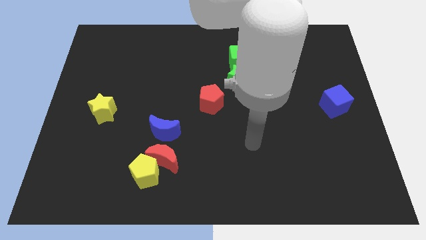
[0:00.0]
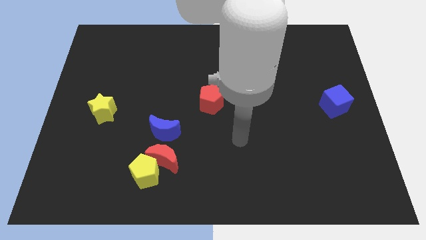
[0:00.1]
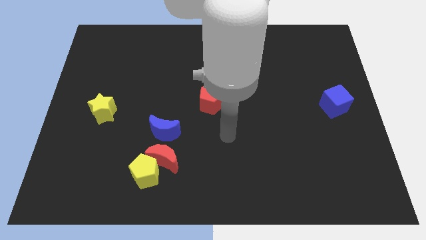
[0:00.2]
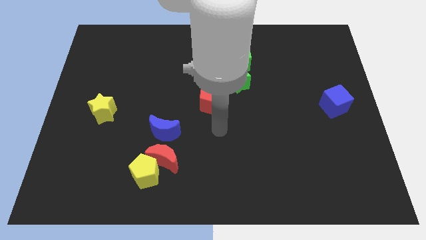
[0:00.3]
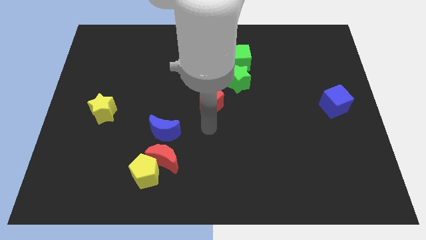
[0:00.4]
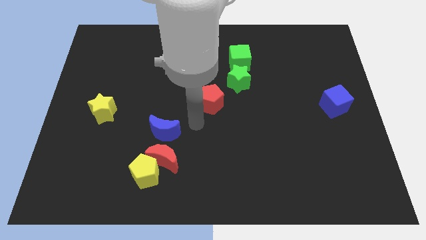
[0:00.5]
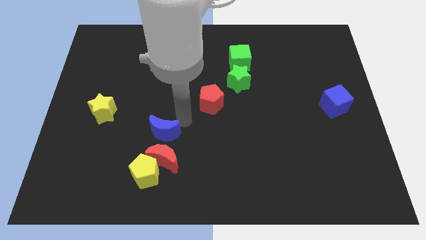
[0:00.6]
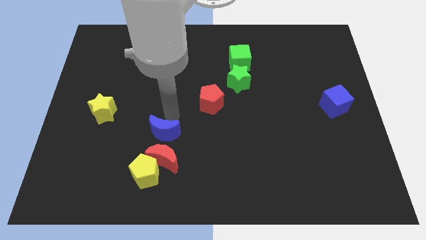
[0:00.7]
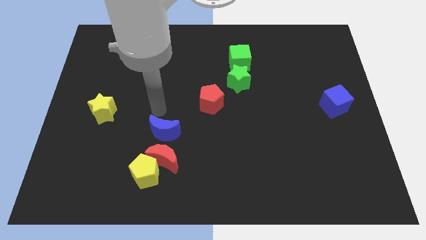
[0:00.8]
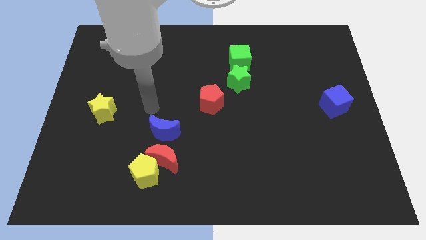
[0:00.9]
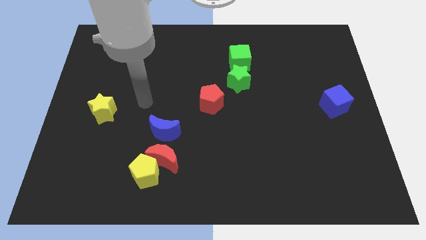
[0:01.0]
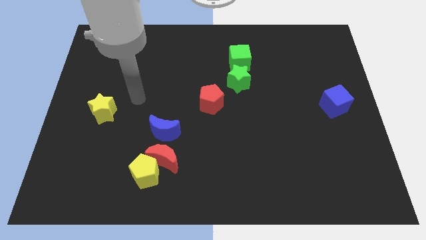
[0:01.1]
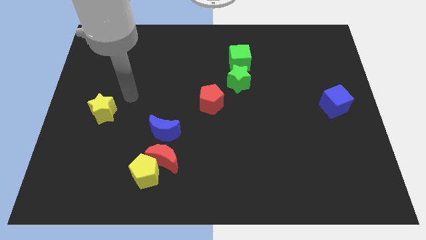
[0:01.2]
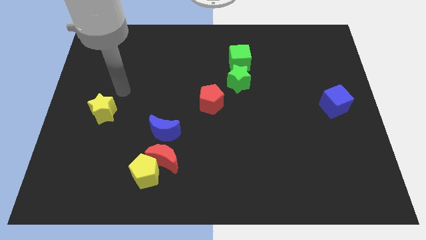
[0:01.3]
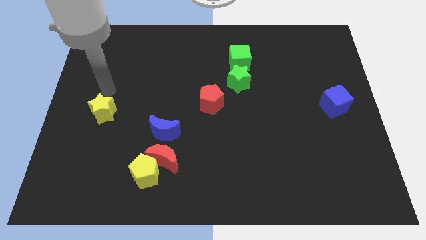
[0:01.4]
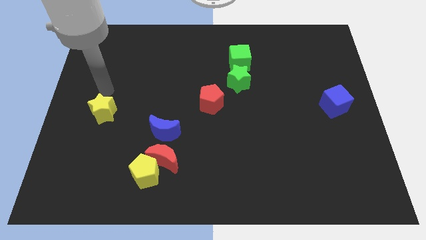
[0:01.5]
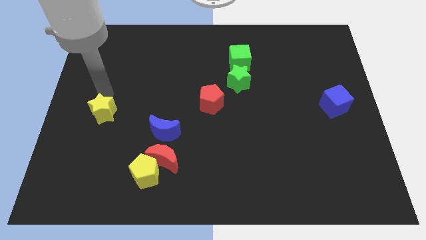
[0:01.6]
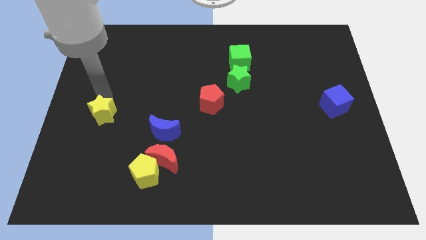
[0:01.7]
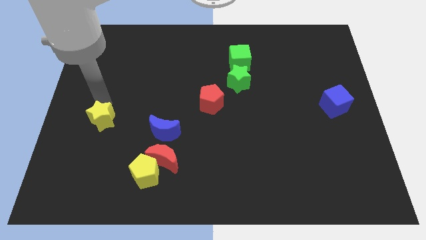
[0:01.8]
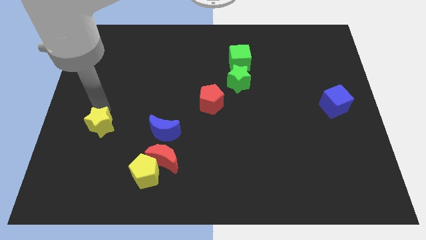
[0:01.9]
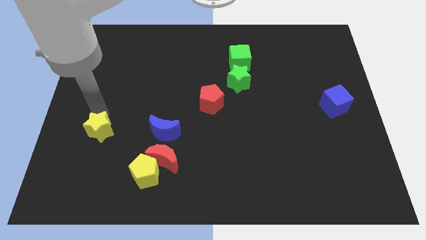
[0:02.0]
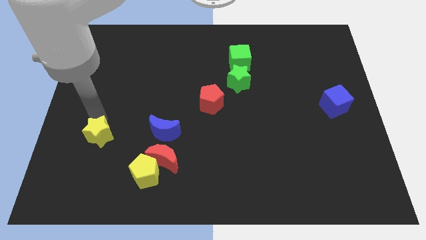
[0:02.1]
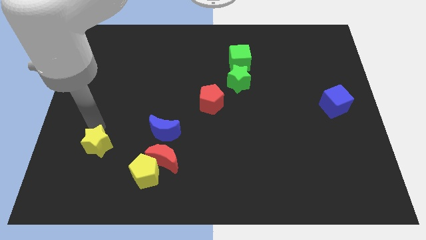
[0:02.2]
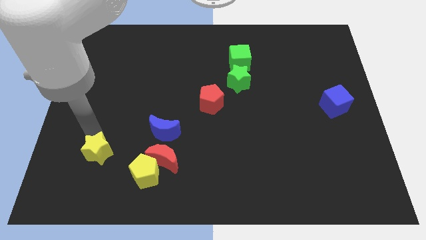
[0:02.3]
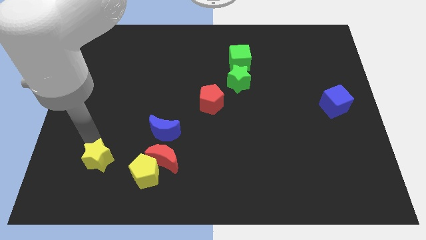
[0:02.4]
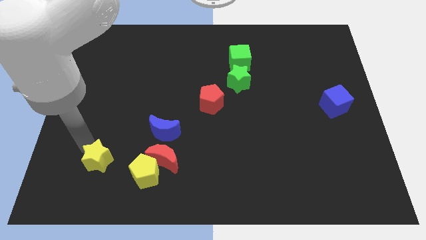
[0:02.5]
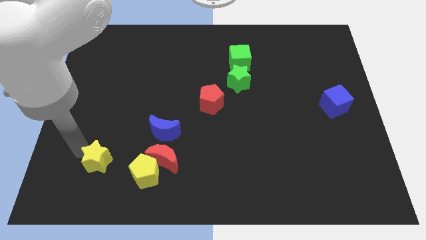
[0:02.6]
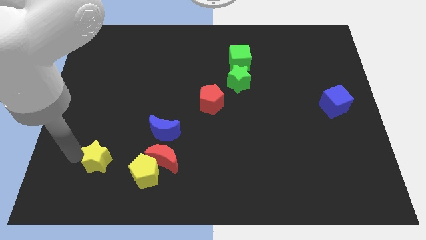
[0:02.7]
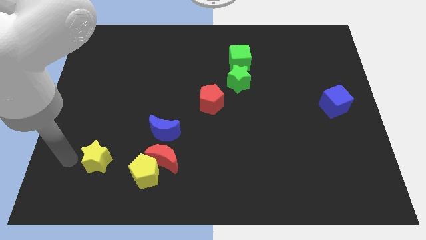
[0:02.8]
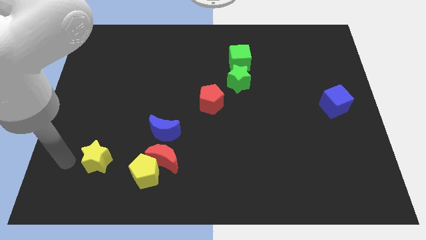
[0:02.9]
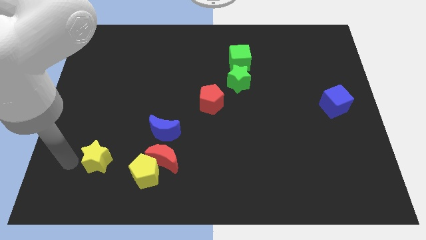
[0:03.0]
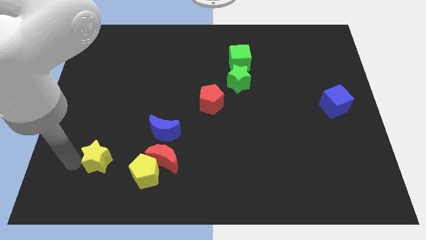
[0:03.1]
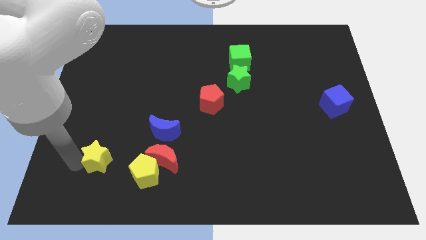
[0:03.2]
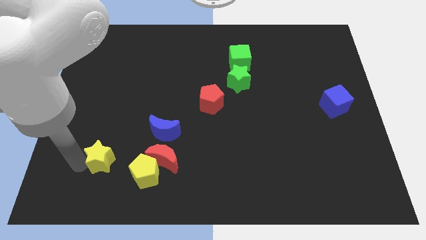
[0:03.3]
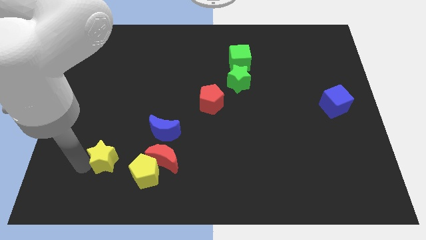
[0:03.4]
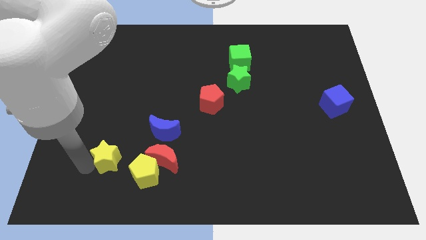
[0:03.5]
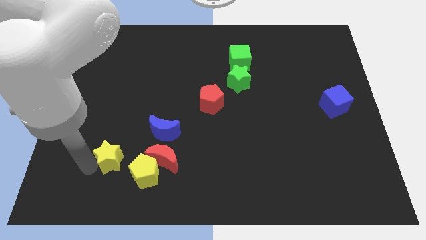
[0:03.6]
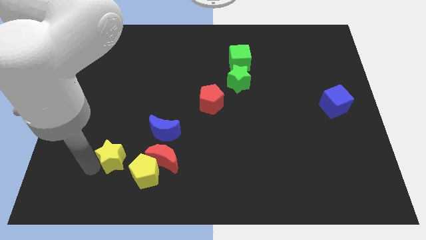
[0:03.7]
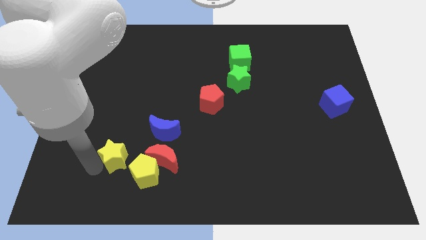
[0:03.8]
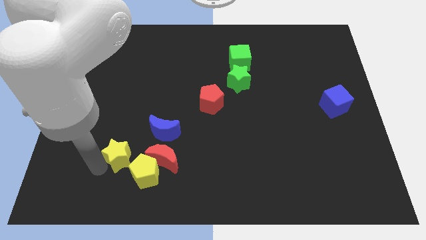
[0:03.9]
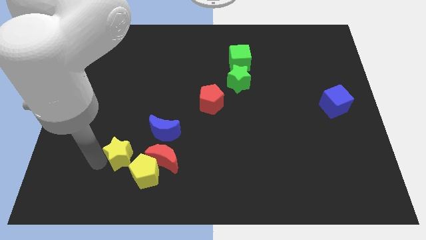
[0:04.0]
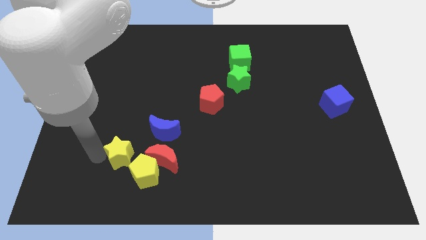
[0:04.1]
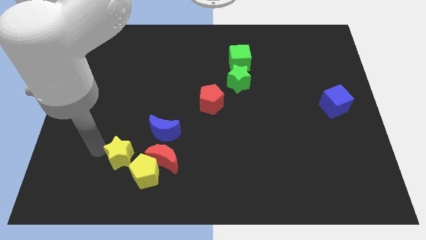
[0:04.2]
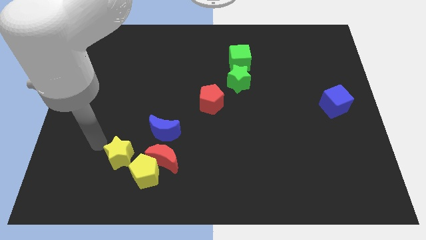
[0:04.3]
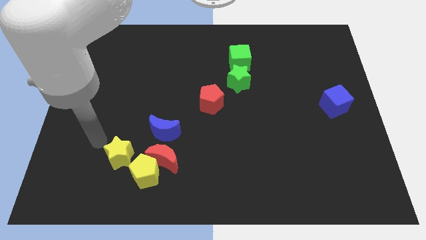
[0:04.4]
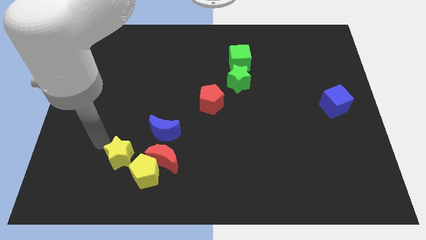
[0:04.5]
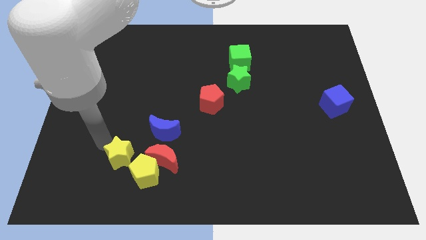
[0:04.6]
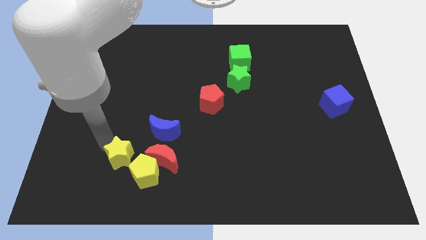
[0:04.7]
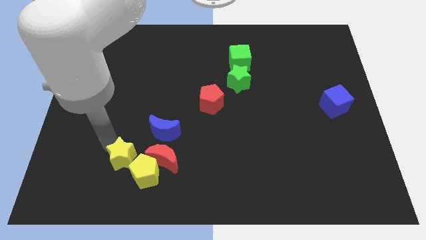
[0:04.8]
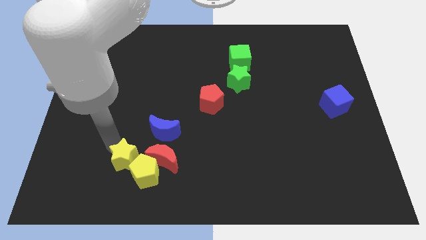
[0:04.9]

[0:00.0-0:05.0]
move the yellow star towards the yellow pentagon

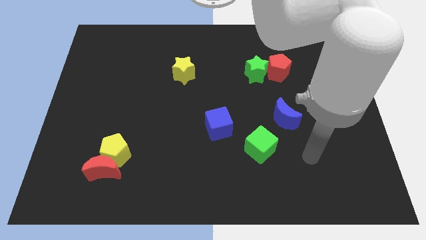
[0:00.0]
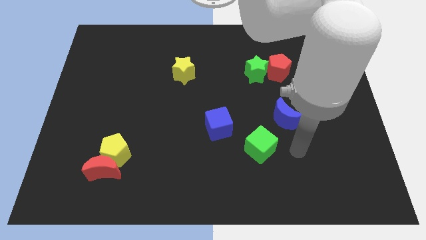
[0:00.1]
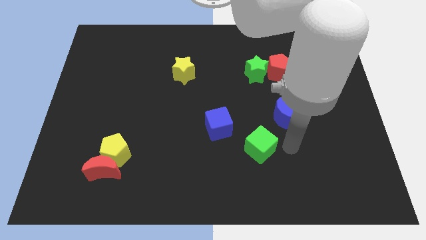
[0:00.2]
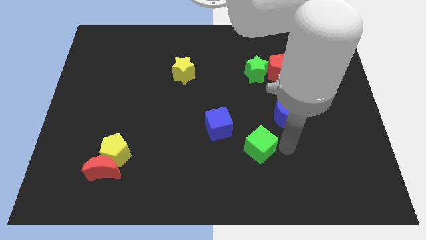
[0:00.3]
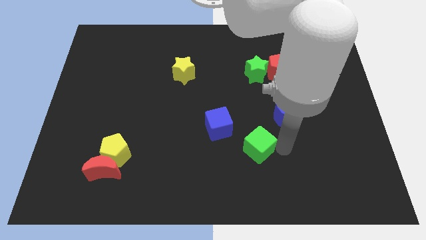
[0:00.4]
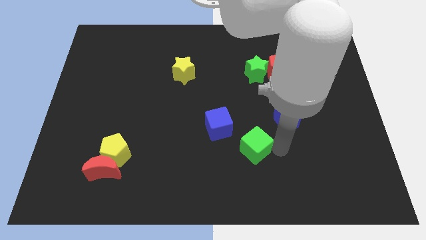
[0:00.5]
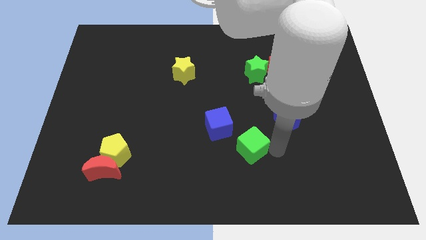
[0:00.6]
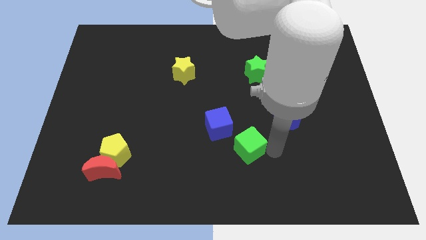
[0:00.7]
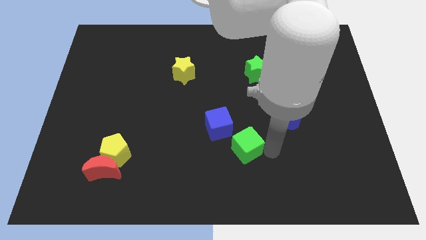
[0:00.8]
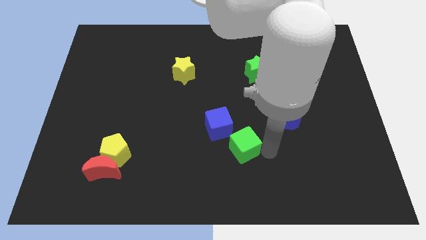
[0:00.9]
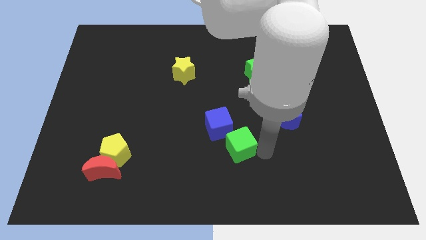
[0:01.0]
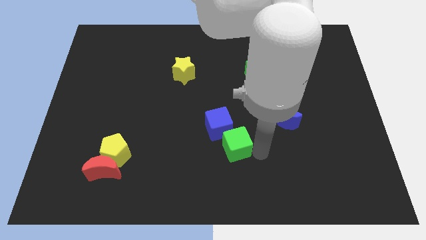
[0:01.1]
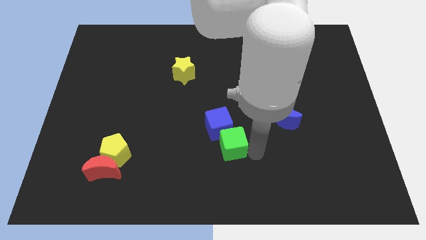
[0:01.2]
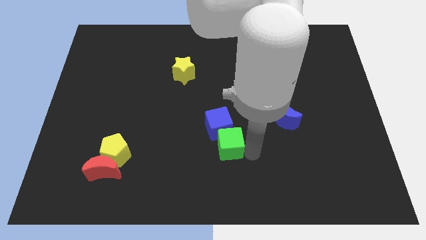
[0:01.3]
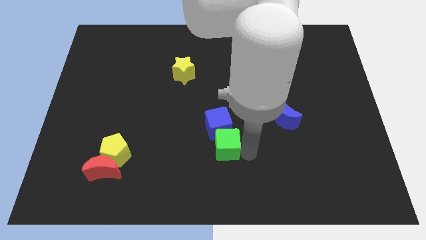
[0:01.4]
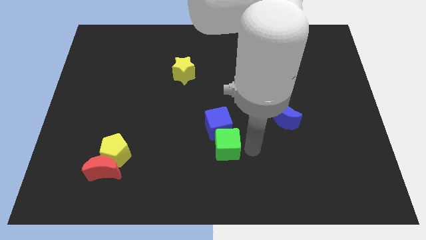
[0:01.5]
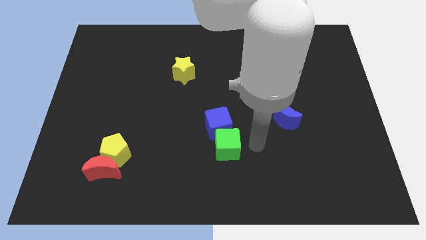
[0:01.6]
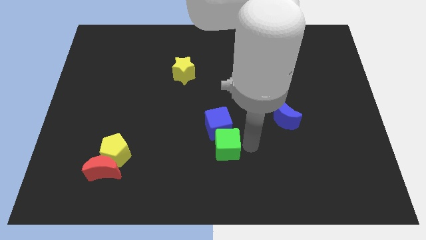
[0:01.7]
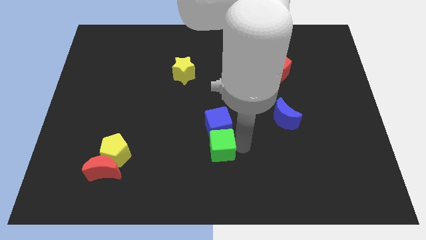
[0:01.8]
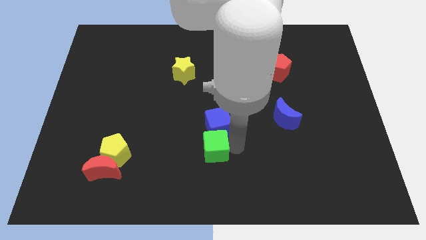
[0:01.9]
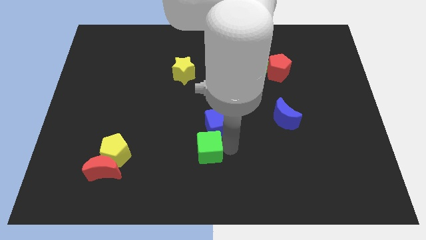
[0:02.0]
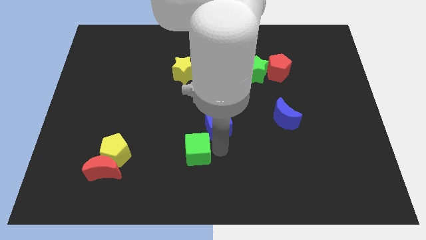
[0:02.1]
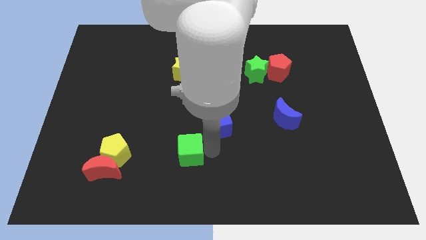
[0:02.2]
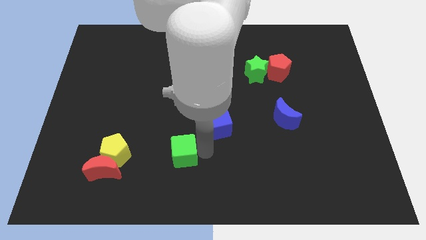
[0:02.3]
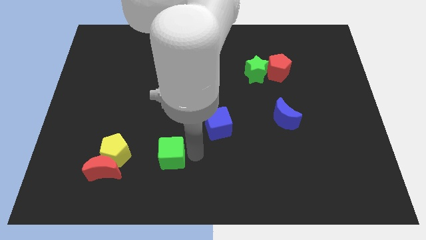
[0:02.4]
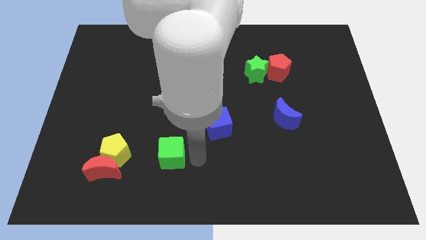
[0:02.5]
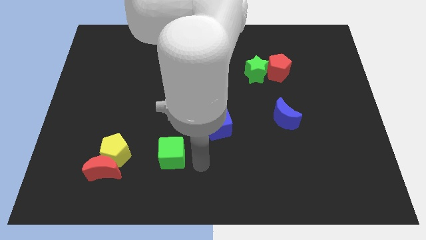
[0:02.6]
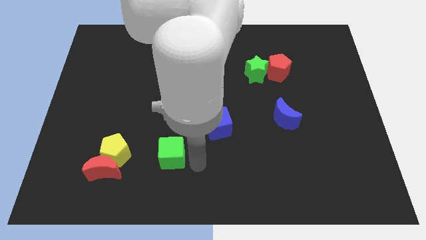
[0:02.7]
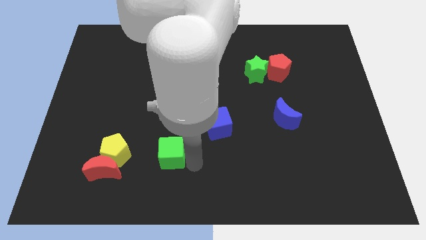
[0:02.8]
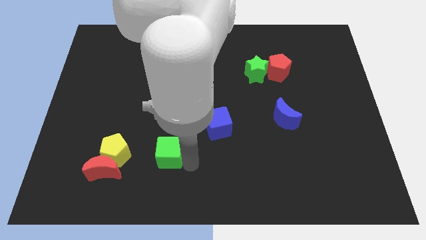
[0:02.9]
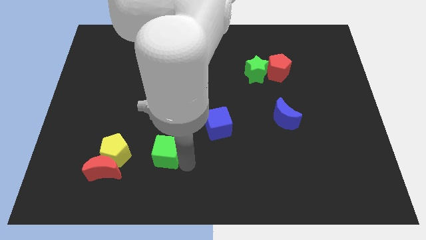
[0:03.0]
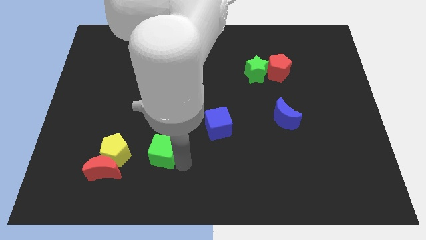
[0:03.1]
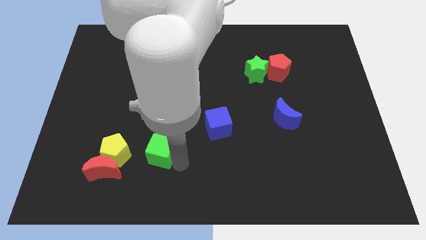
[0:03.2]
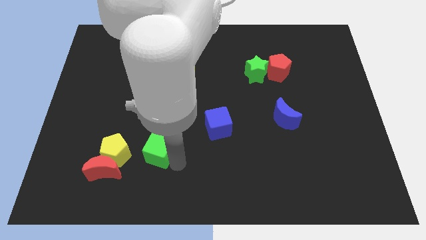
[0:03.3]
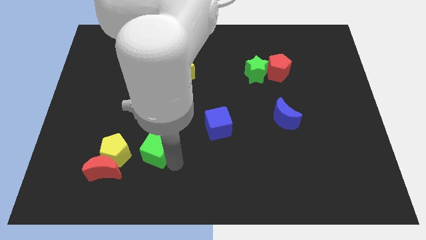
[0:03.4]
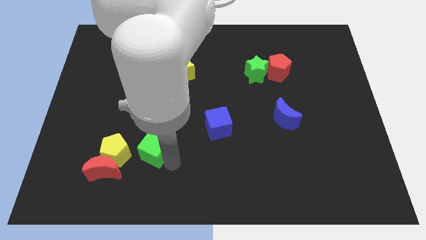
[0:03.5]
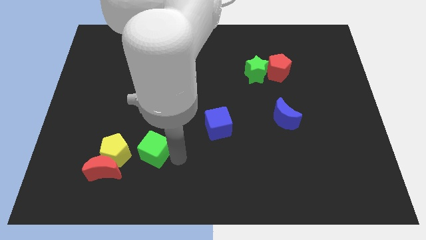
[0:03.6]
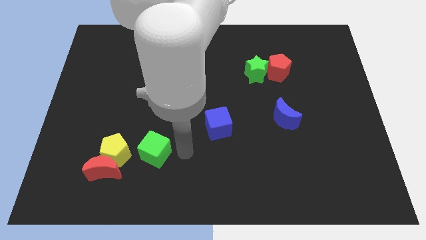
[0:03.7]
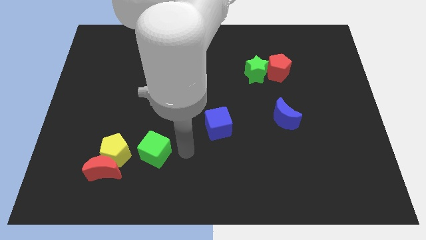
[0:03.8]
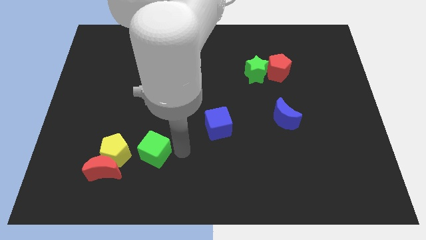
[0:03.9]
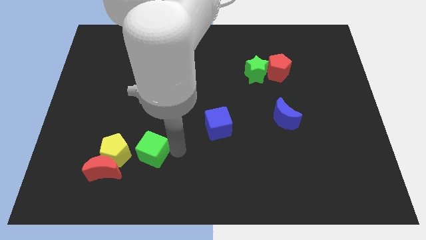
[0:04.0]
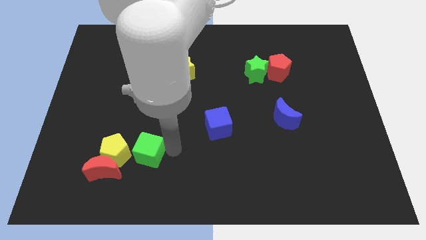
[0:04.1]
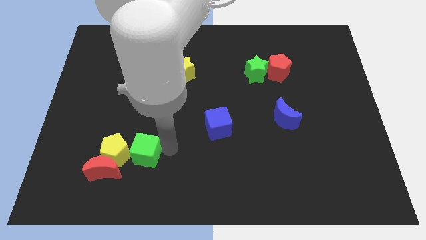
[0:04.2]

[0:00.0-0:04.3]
move the green cube to the yellow pentagon
